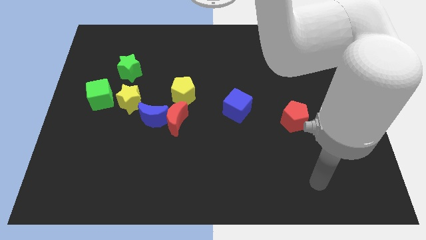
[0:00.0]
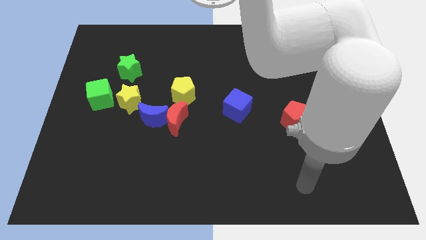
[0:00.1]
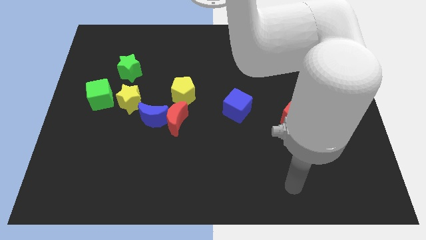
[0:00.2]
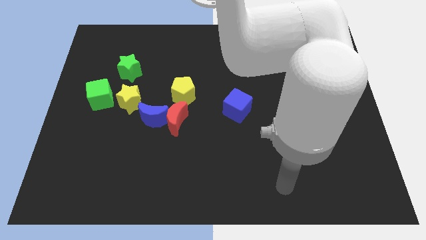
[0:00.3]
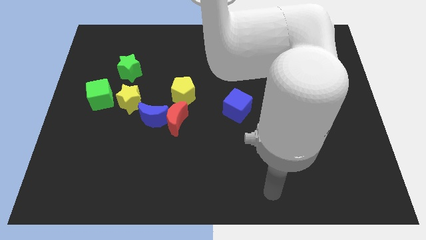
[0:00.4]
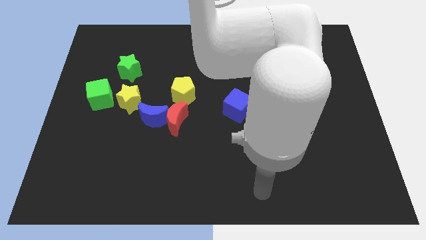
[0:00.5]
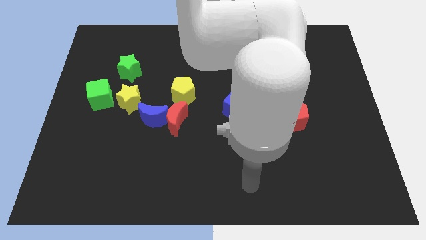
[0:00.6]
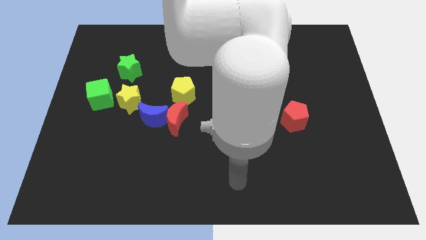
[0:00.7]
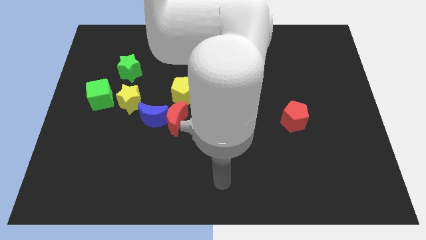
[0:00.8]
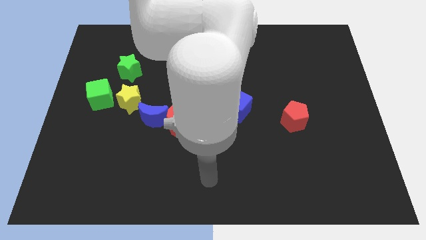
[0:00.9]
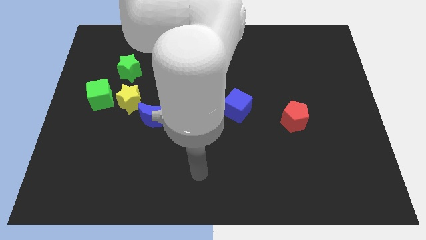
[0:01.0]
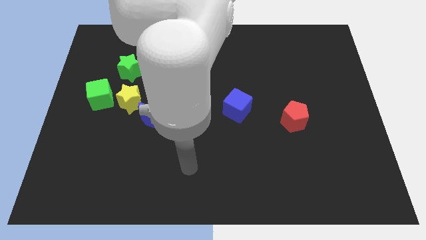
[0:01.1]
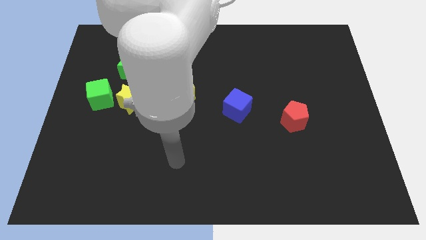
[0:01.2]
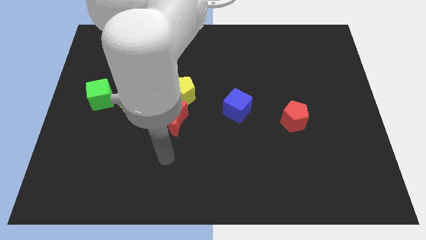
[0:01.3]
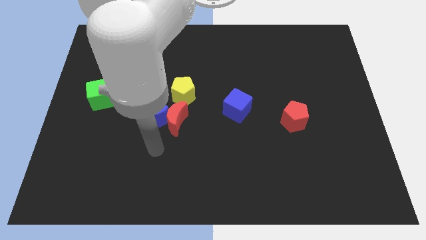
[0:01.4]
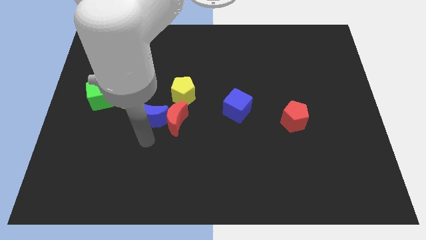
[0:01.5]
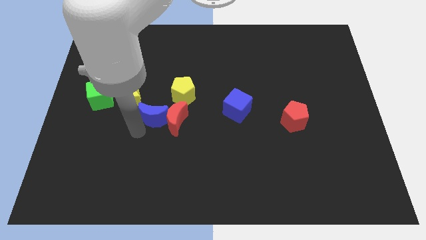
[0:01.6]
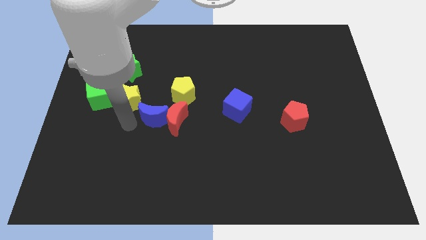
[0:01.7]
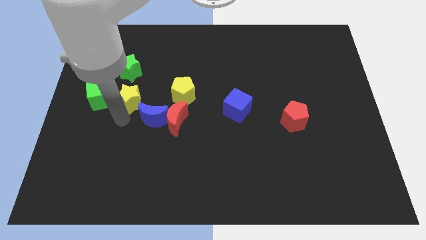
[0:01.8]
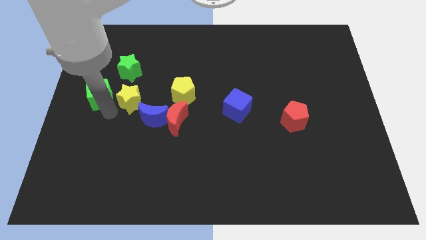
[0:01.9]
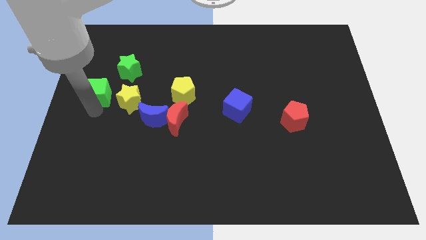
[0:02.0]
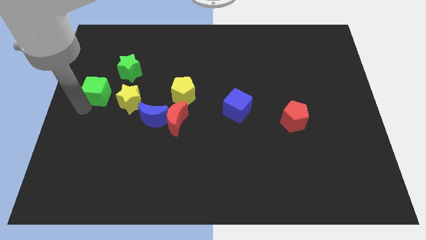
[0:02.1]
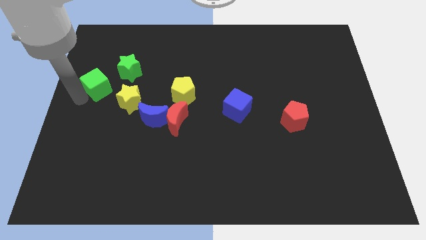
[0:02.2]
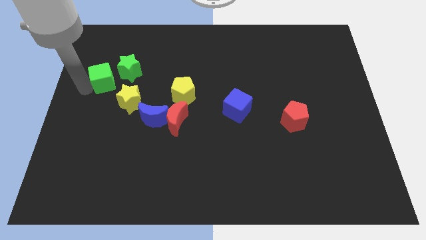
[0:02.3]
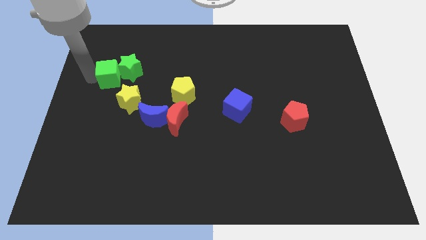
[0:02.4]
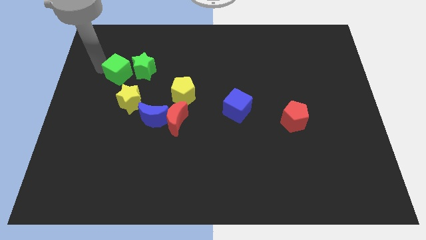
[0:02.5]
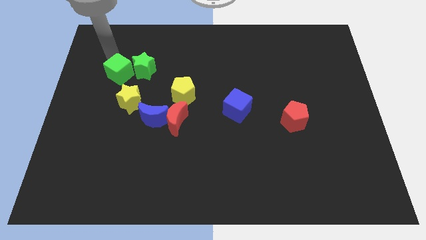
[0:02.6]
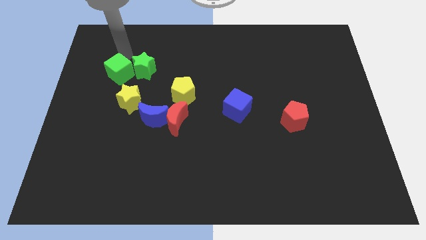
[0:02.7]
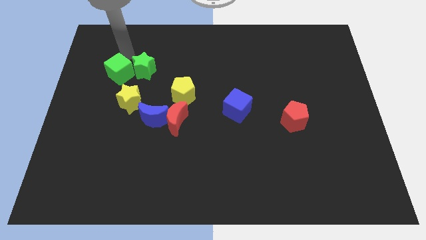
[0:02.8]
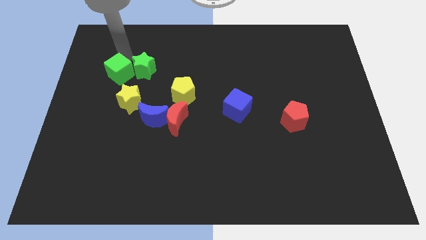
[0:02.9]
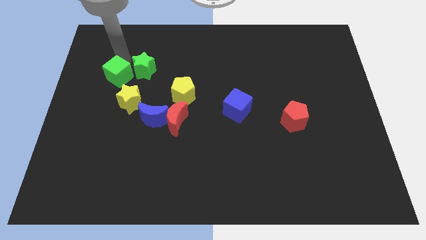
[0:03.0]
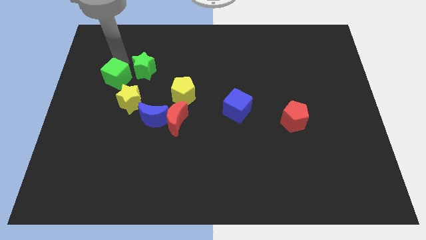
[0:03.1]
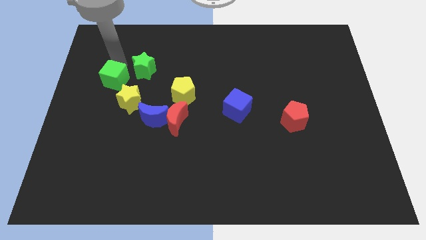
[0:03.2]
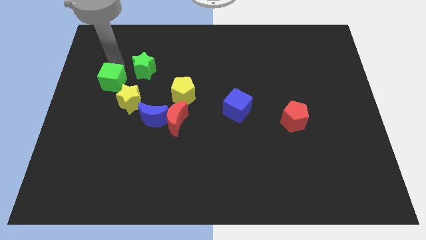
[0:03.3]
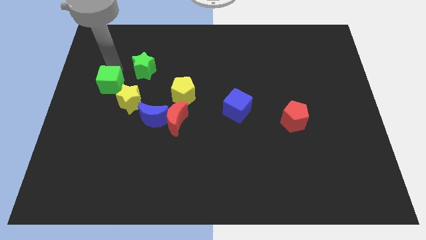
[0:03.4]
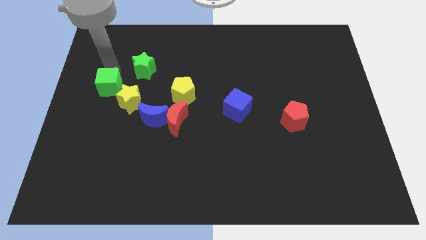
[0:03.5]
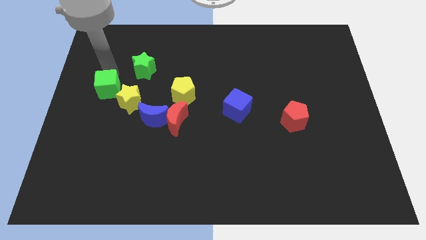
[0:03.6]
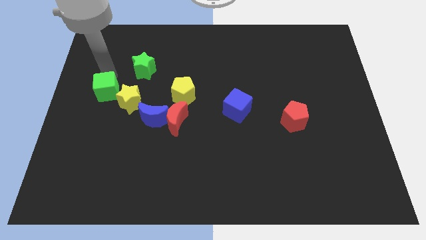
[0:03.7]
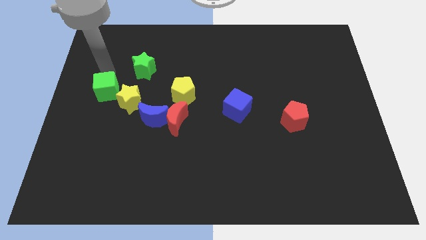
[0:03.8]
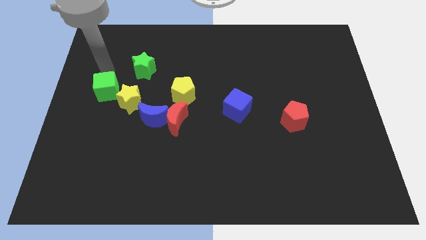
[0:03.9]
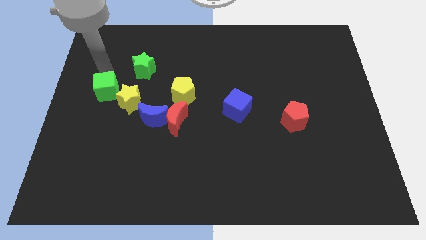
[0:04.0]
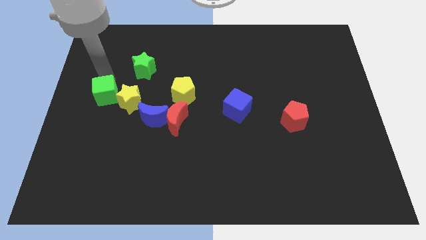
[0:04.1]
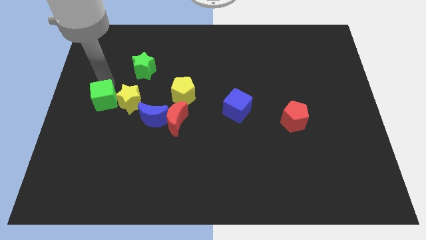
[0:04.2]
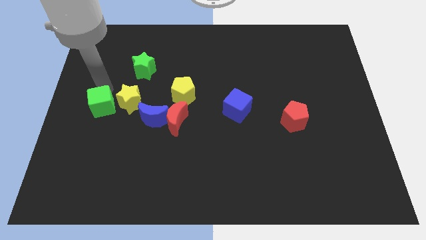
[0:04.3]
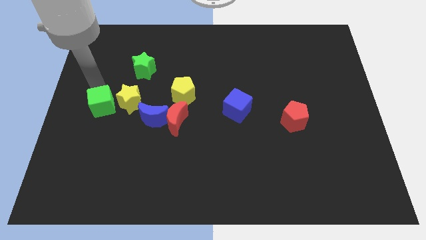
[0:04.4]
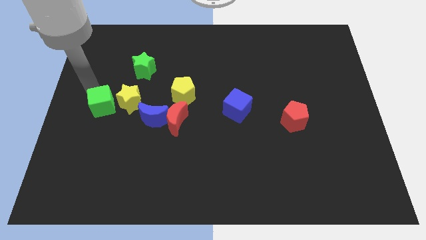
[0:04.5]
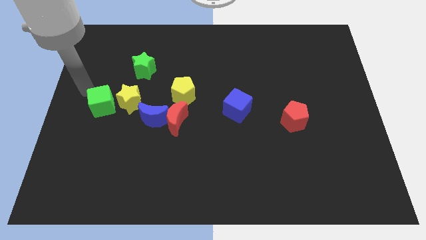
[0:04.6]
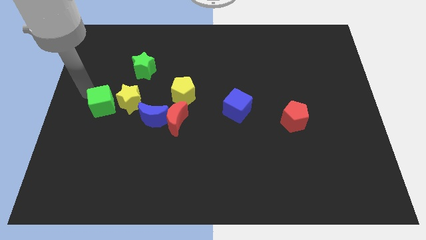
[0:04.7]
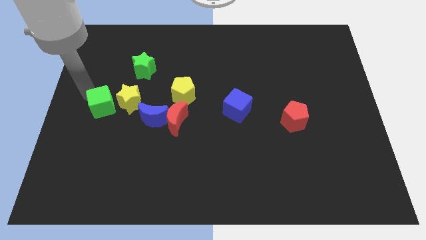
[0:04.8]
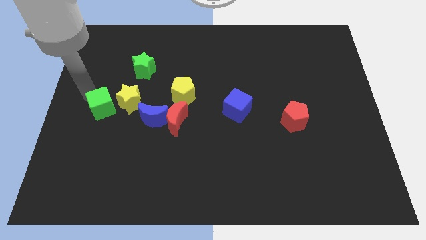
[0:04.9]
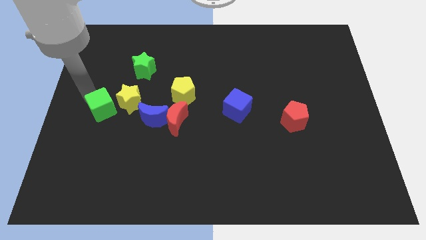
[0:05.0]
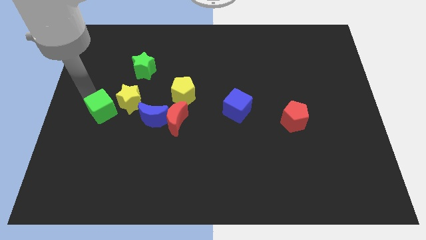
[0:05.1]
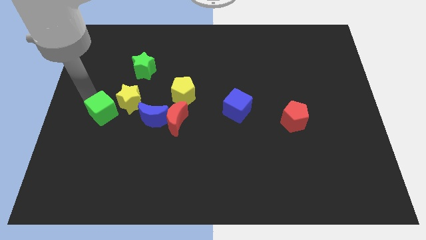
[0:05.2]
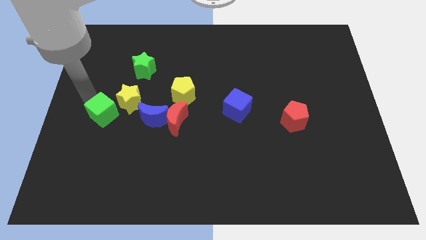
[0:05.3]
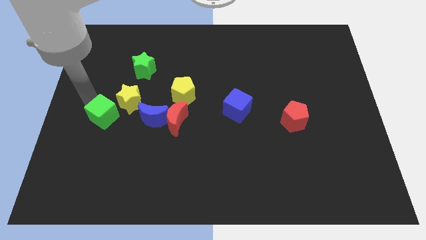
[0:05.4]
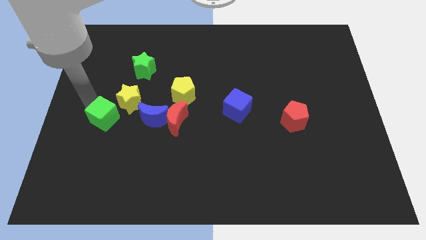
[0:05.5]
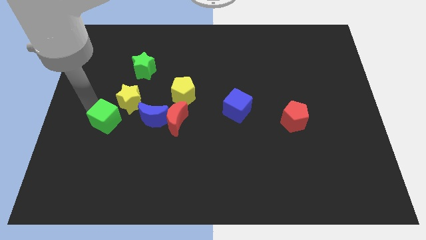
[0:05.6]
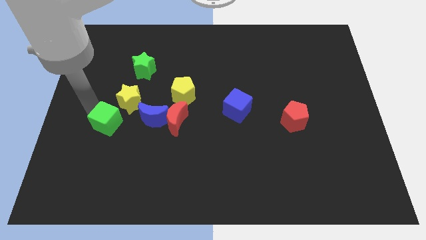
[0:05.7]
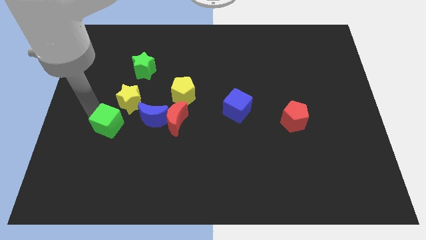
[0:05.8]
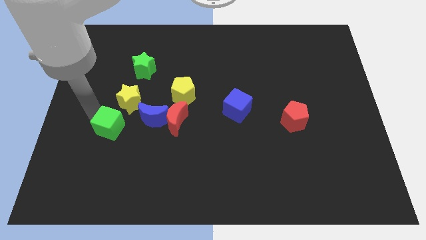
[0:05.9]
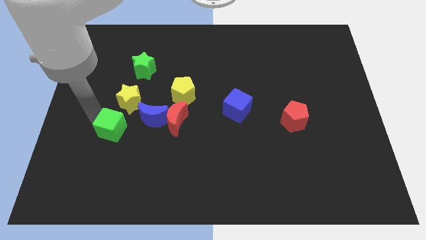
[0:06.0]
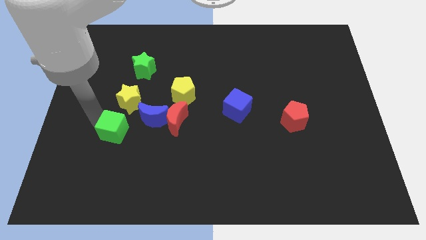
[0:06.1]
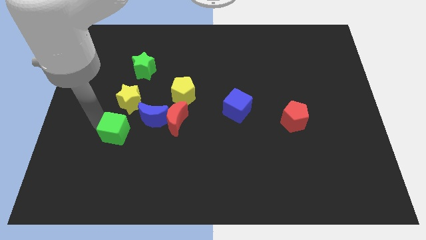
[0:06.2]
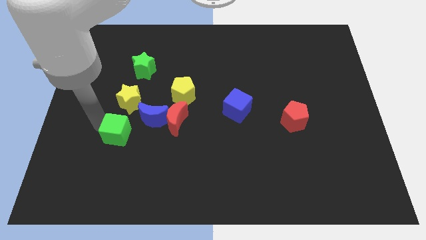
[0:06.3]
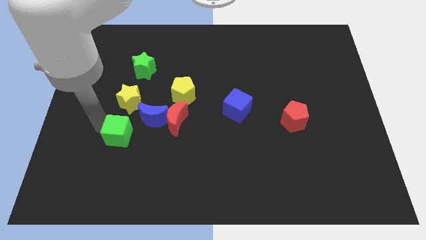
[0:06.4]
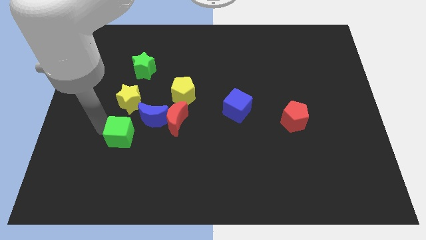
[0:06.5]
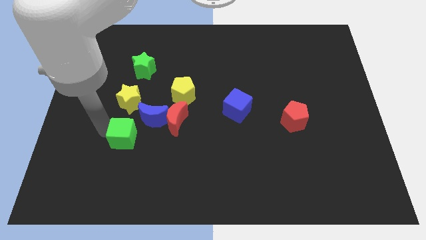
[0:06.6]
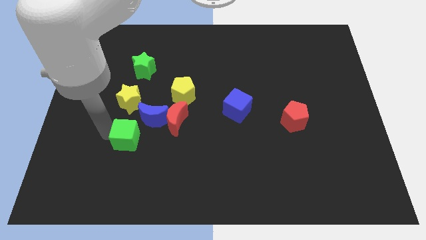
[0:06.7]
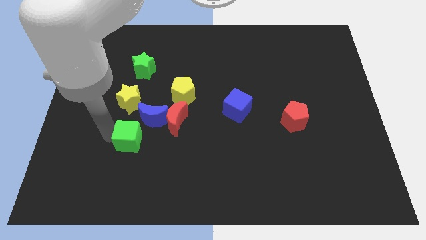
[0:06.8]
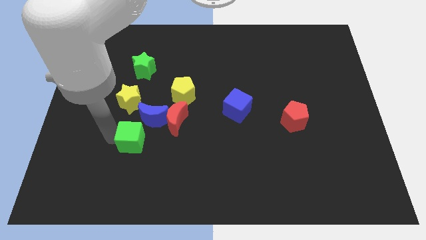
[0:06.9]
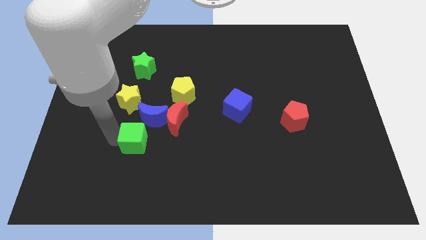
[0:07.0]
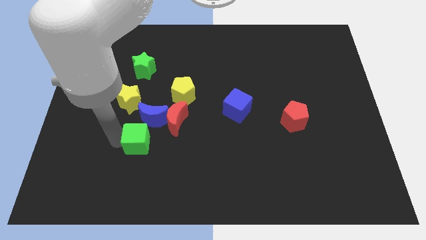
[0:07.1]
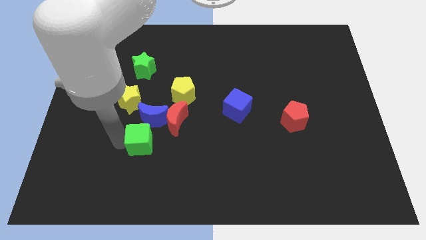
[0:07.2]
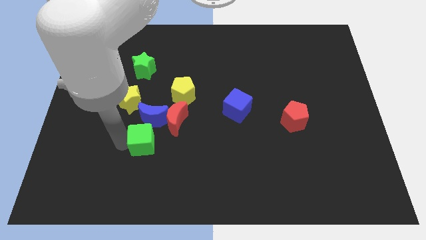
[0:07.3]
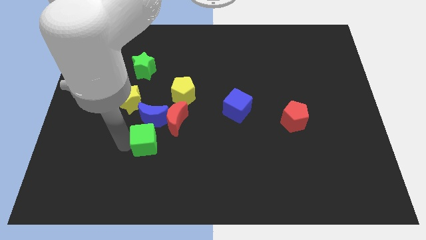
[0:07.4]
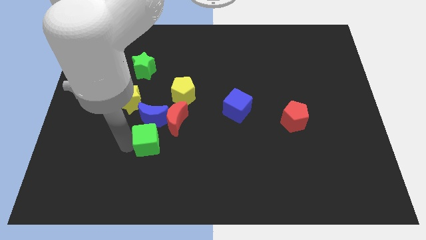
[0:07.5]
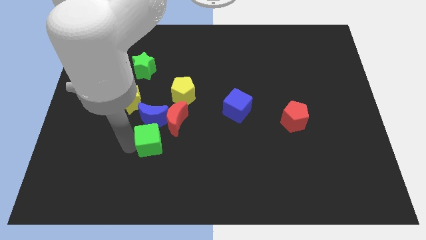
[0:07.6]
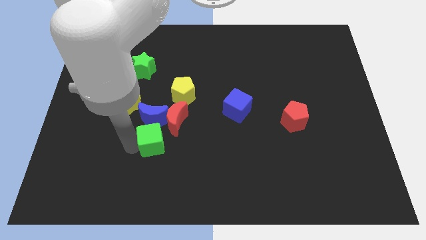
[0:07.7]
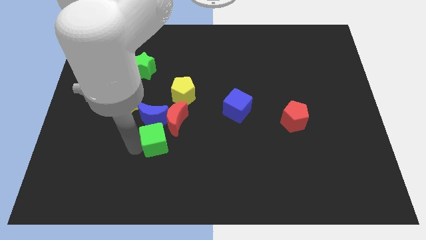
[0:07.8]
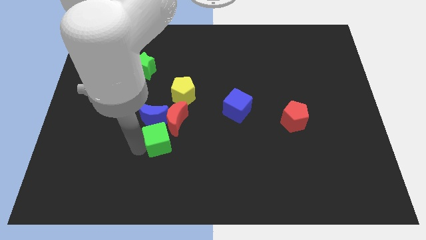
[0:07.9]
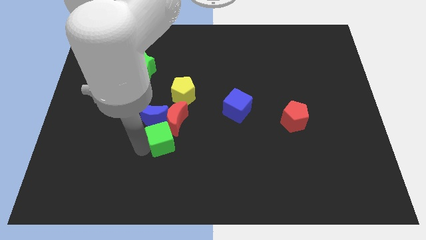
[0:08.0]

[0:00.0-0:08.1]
push the green cube close to the red moon

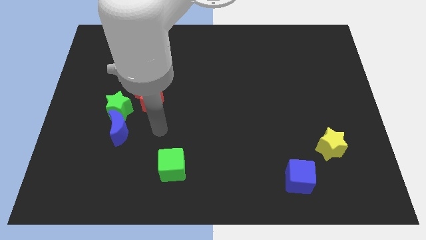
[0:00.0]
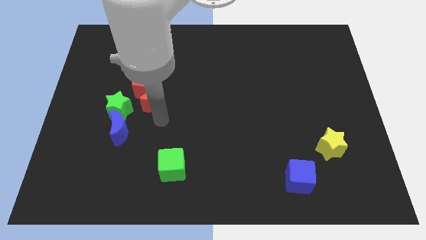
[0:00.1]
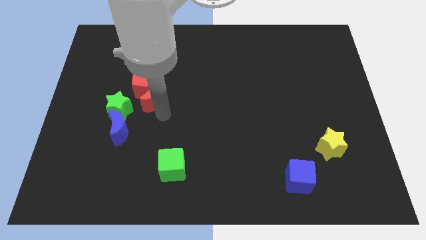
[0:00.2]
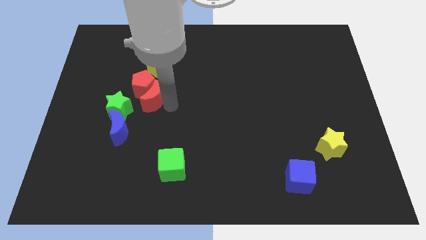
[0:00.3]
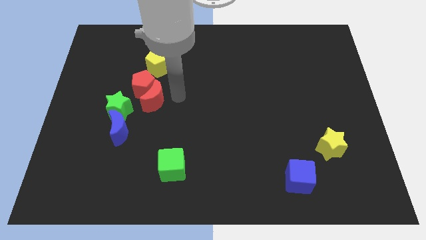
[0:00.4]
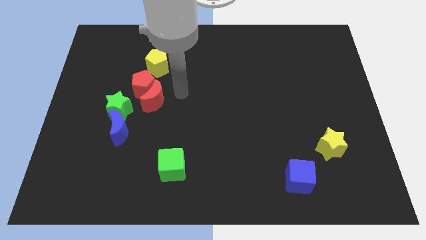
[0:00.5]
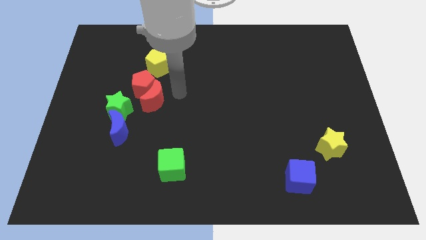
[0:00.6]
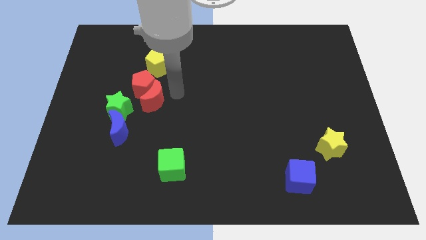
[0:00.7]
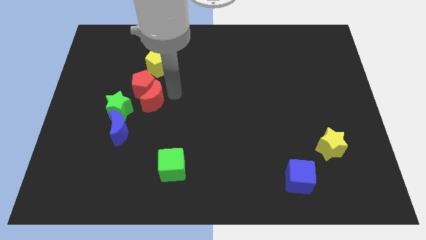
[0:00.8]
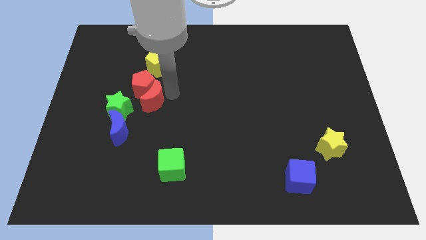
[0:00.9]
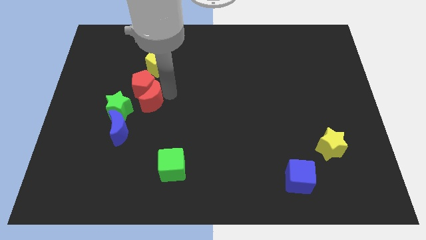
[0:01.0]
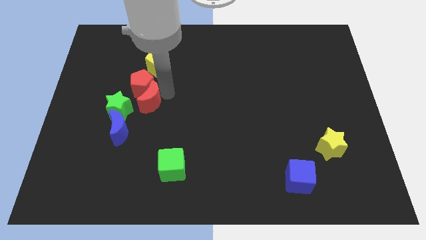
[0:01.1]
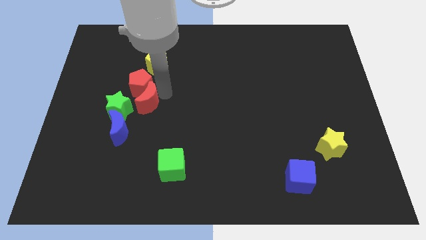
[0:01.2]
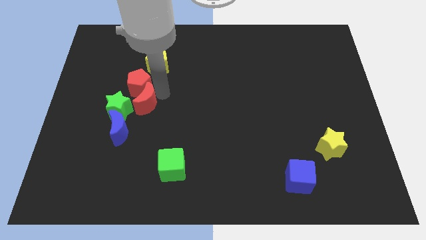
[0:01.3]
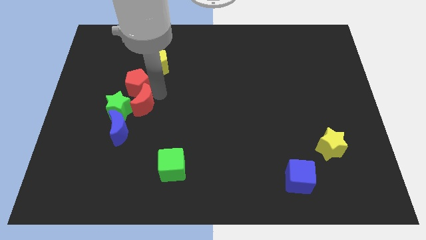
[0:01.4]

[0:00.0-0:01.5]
push the red moon to the green star
